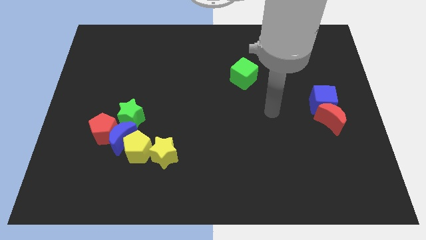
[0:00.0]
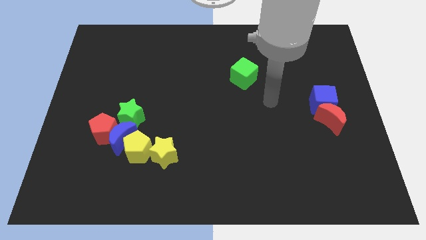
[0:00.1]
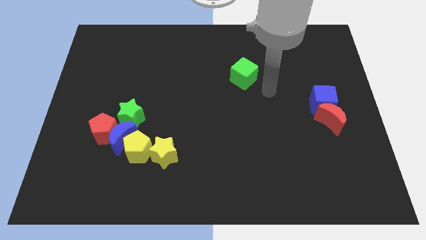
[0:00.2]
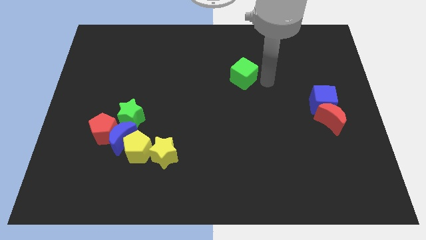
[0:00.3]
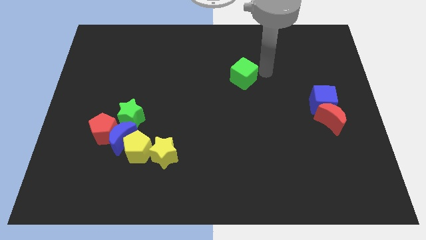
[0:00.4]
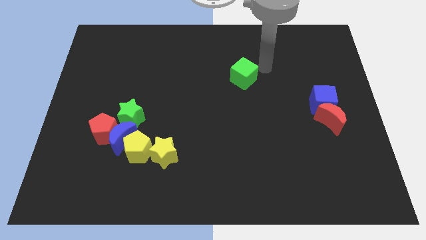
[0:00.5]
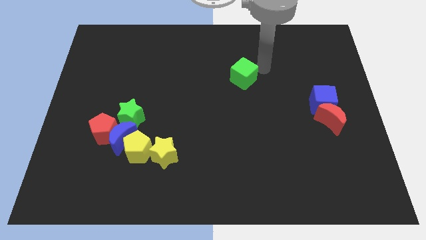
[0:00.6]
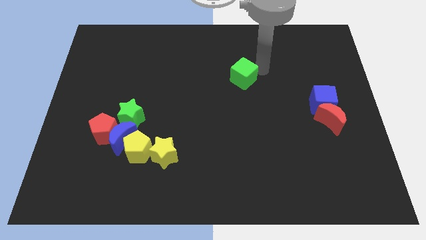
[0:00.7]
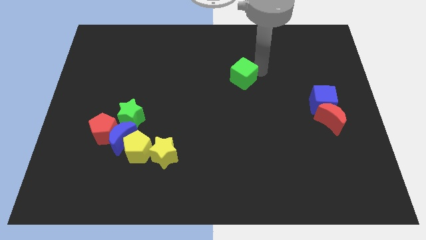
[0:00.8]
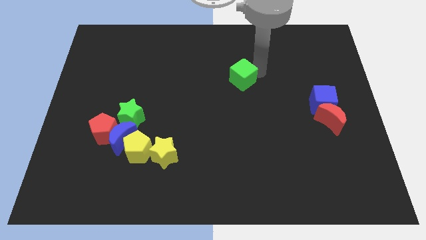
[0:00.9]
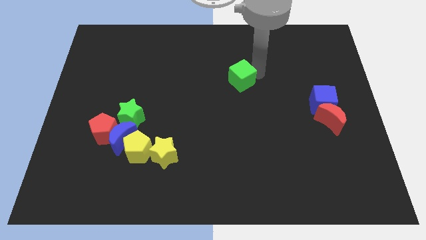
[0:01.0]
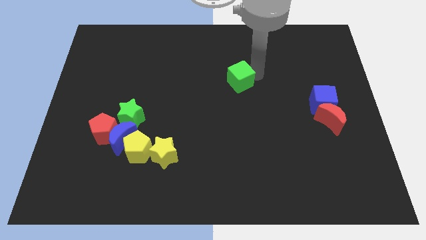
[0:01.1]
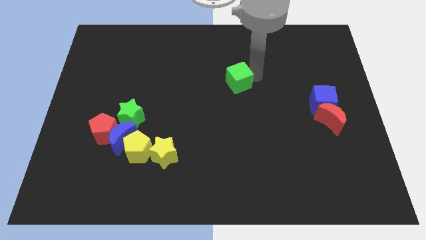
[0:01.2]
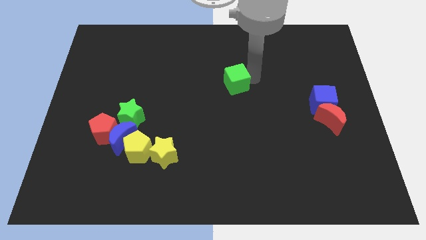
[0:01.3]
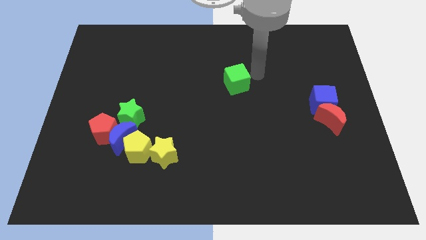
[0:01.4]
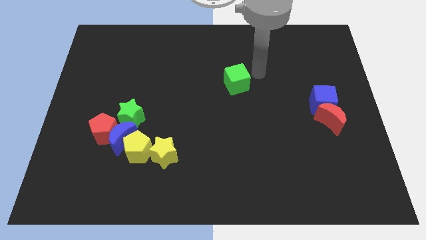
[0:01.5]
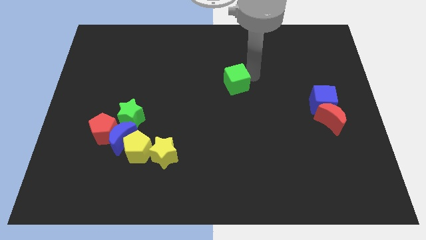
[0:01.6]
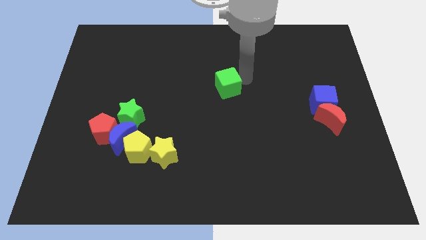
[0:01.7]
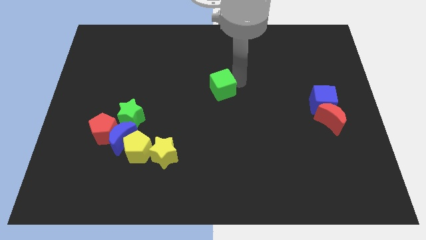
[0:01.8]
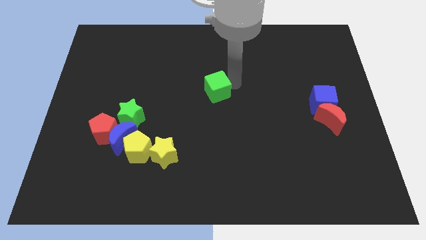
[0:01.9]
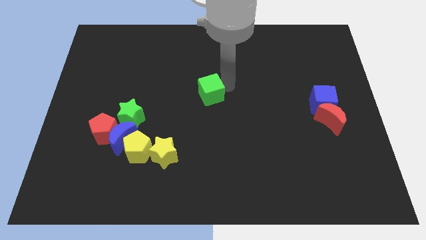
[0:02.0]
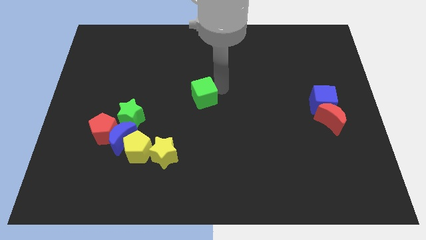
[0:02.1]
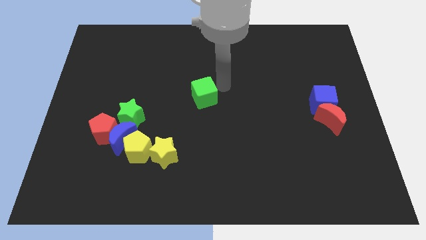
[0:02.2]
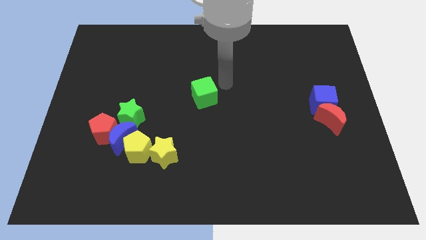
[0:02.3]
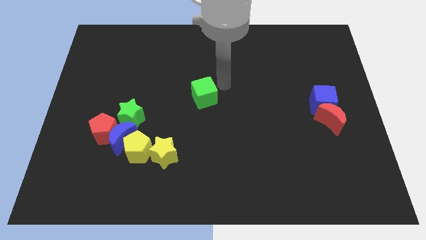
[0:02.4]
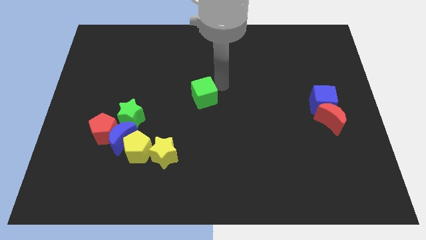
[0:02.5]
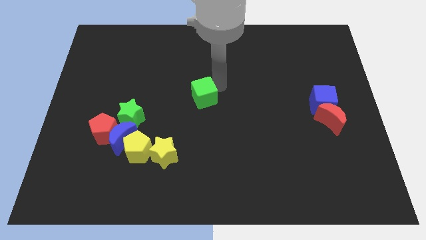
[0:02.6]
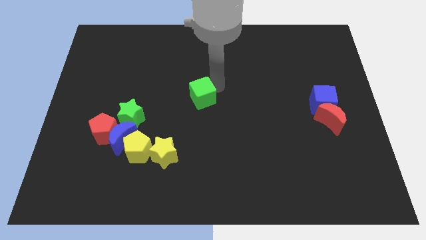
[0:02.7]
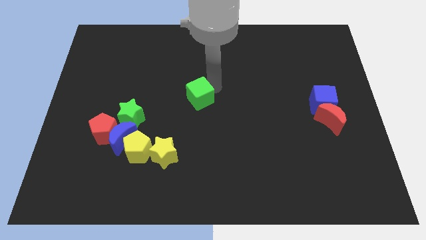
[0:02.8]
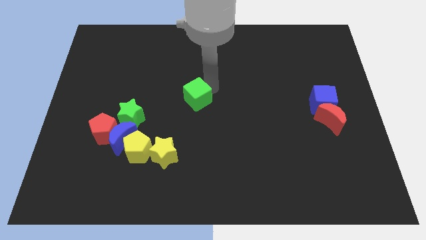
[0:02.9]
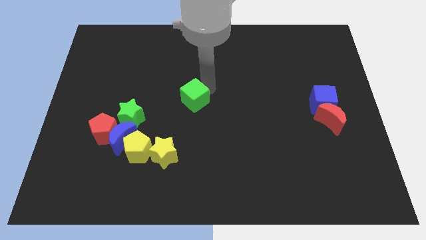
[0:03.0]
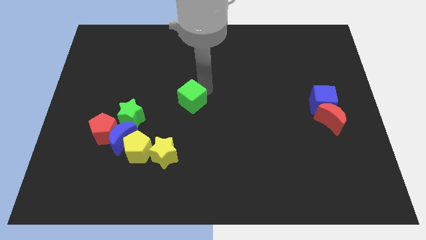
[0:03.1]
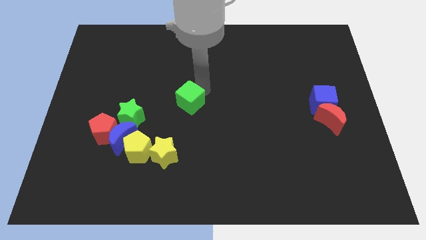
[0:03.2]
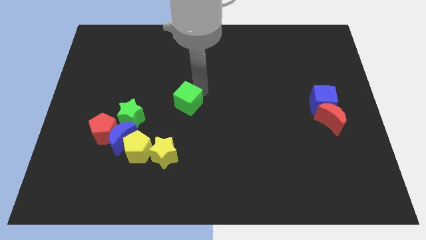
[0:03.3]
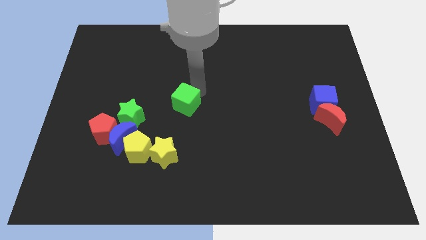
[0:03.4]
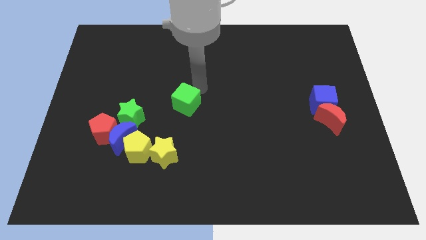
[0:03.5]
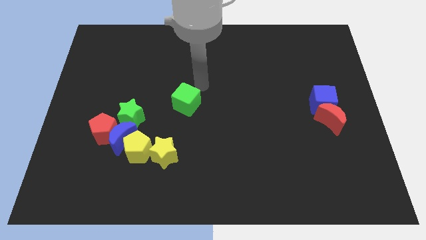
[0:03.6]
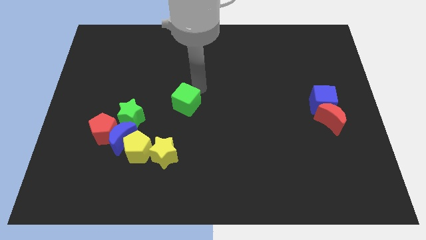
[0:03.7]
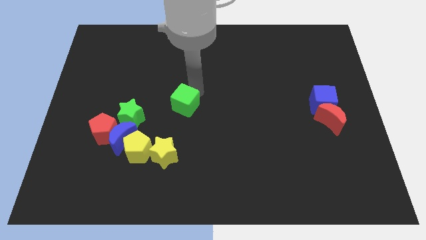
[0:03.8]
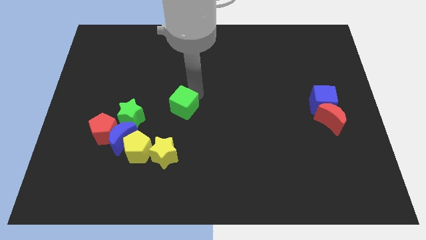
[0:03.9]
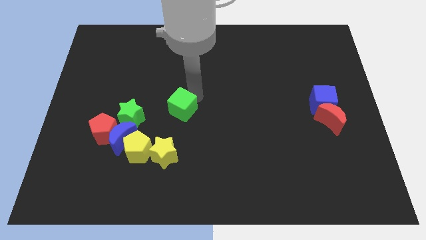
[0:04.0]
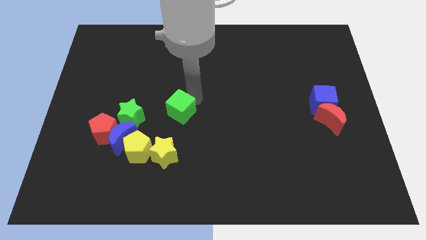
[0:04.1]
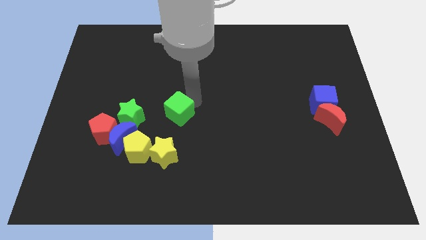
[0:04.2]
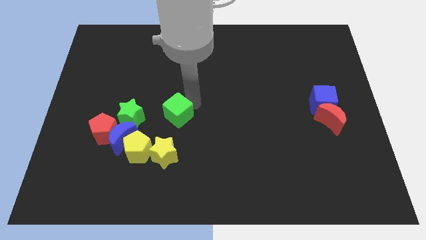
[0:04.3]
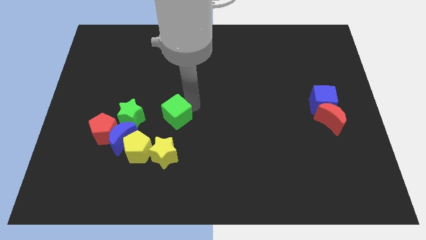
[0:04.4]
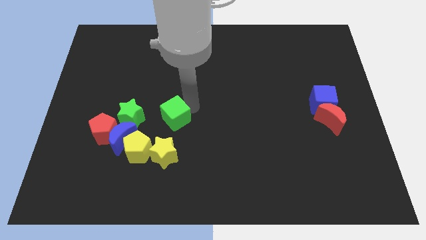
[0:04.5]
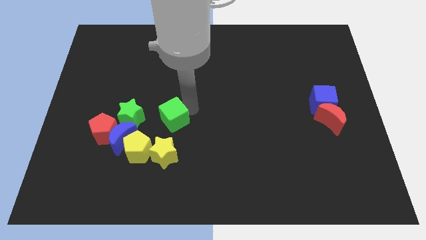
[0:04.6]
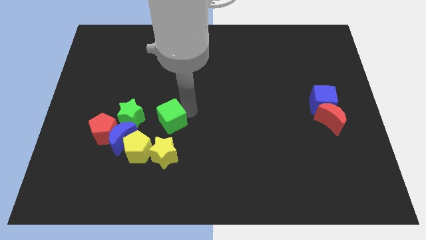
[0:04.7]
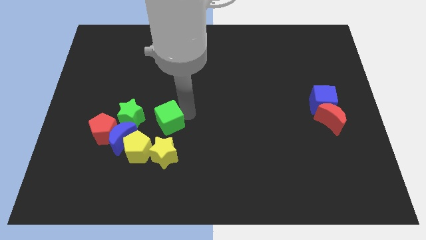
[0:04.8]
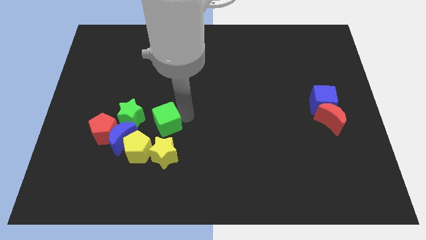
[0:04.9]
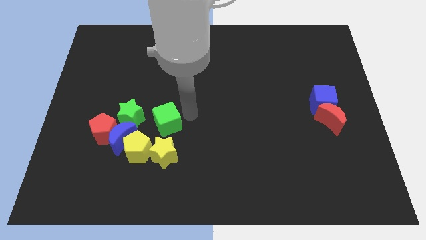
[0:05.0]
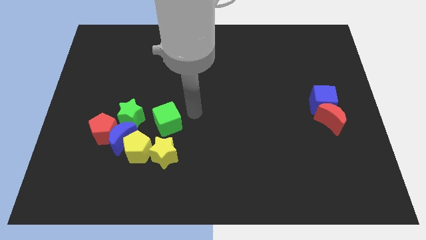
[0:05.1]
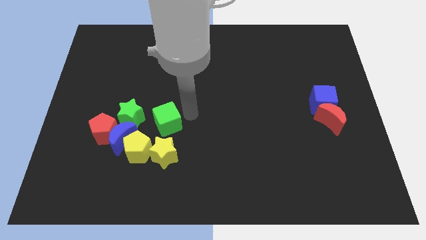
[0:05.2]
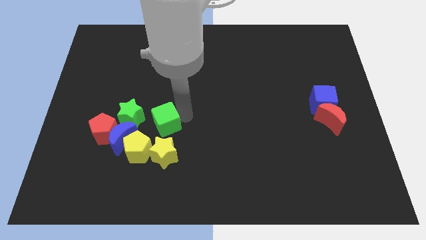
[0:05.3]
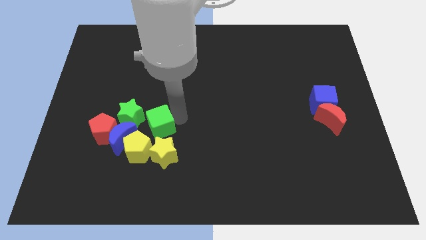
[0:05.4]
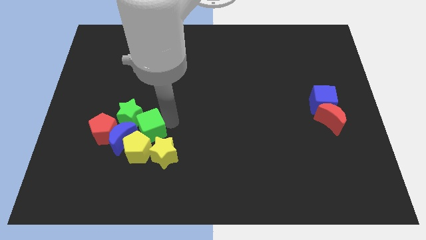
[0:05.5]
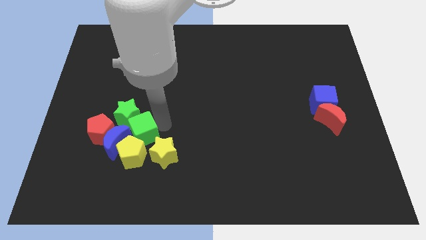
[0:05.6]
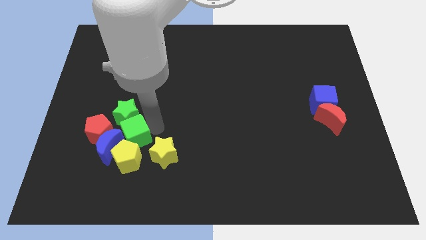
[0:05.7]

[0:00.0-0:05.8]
put the green cube close to the blue moon

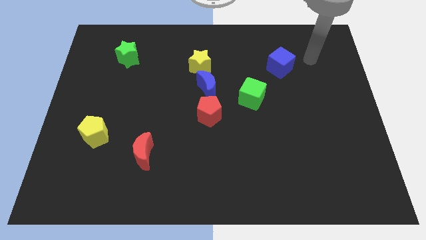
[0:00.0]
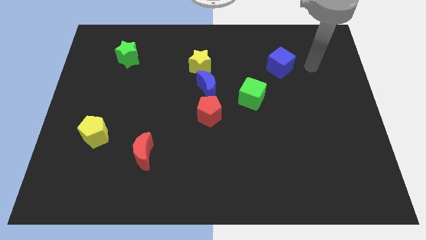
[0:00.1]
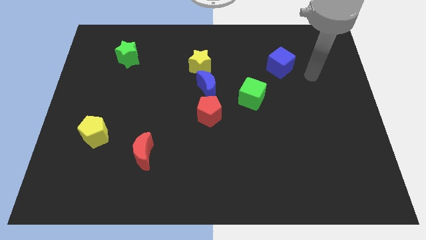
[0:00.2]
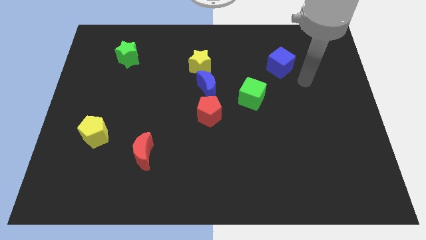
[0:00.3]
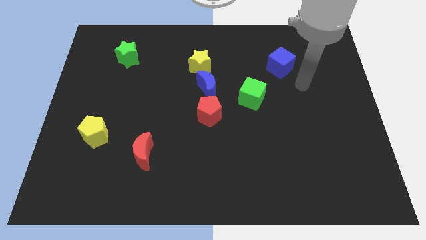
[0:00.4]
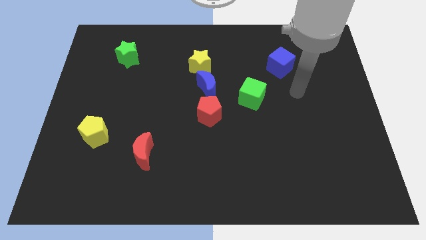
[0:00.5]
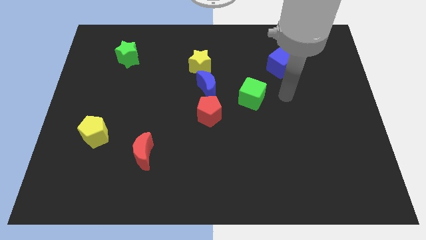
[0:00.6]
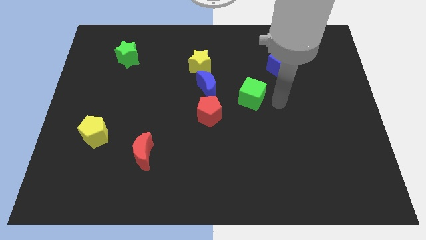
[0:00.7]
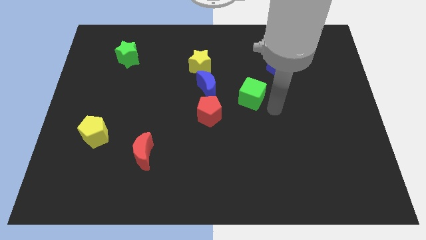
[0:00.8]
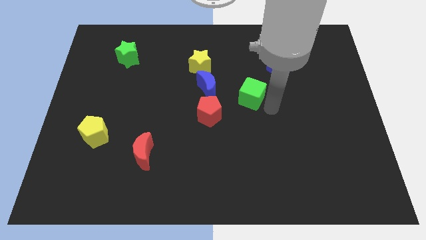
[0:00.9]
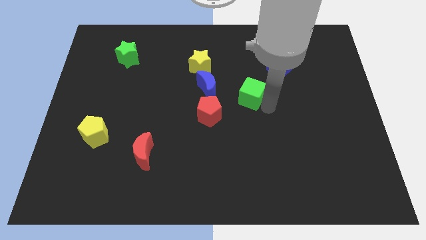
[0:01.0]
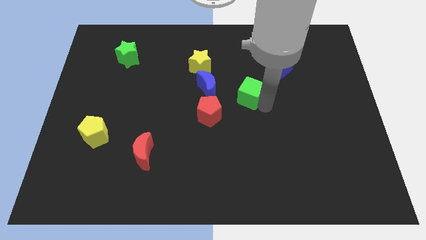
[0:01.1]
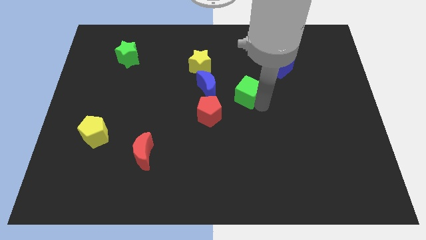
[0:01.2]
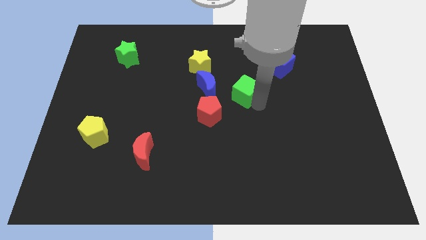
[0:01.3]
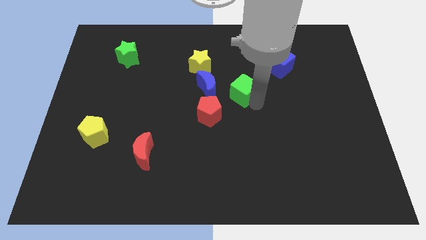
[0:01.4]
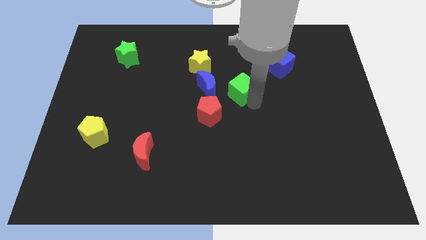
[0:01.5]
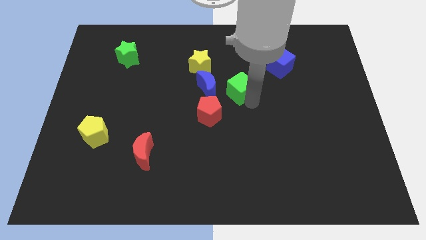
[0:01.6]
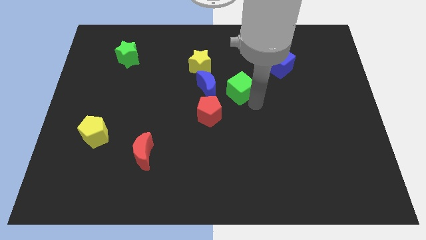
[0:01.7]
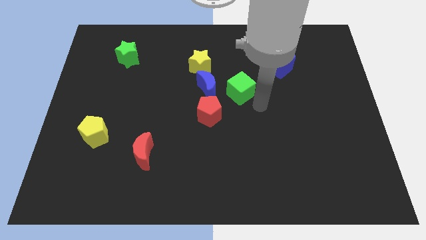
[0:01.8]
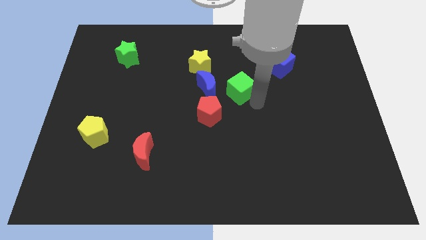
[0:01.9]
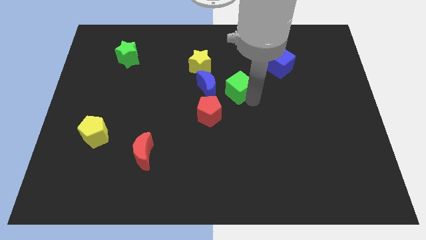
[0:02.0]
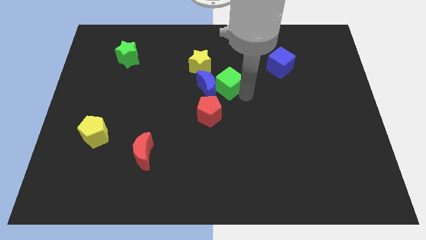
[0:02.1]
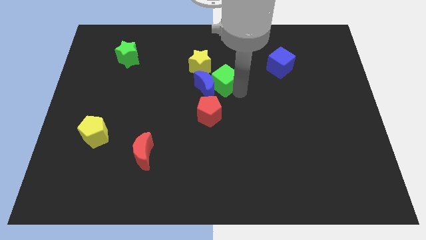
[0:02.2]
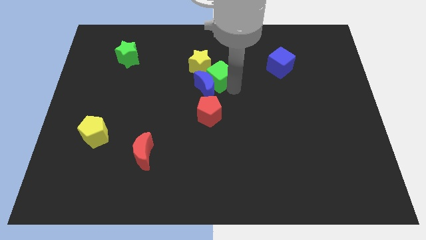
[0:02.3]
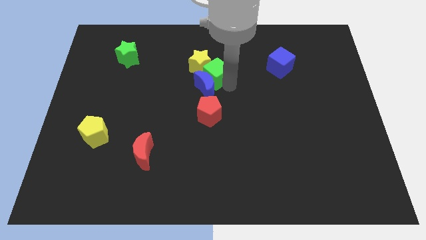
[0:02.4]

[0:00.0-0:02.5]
slide the green cube next to the yellow star
